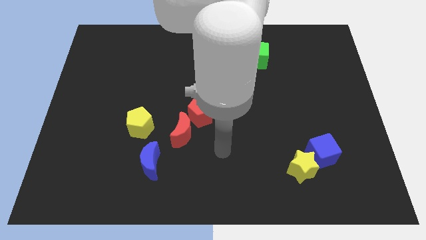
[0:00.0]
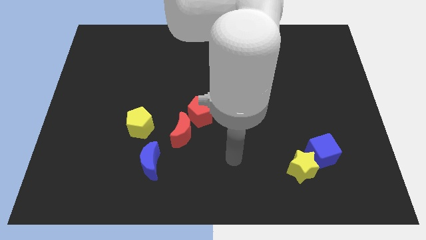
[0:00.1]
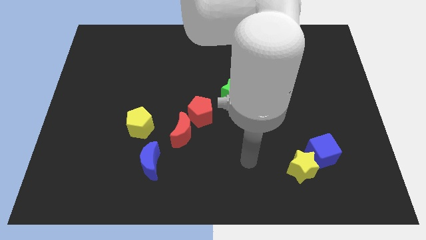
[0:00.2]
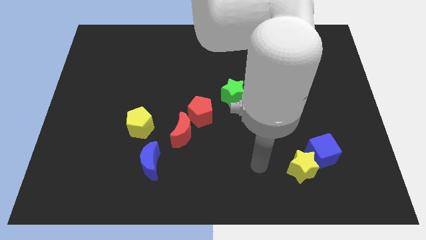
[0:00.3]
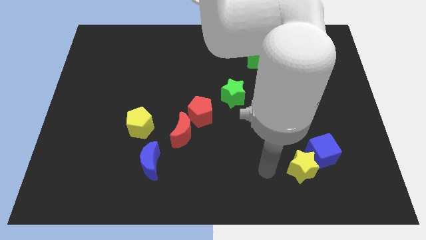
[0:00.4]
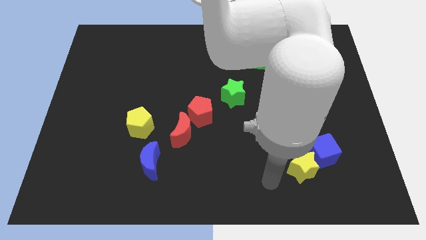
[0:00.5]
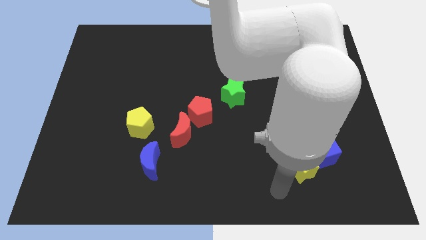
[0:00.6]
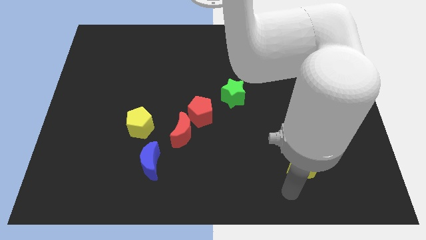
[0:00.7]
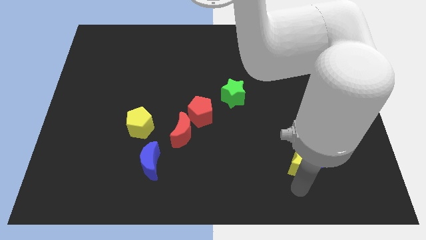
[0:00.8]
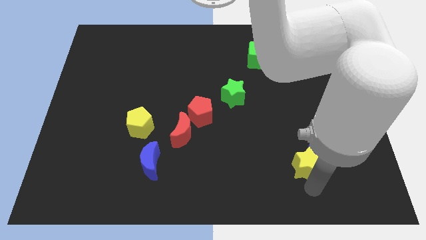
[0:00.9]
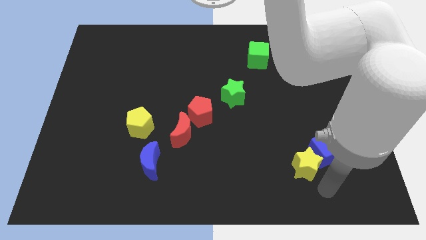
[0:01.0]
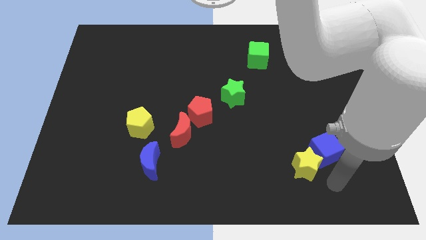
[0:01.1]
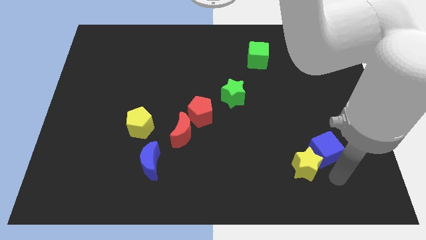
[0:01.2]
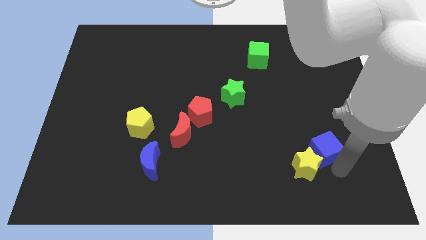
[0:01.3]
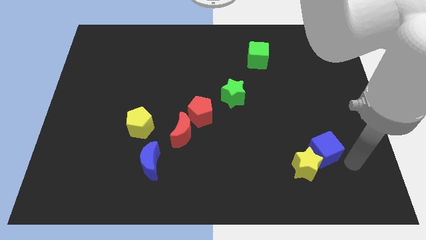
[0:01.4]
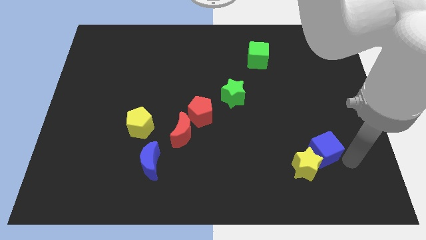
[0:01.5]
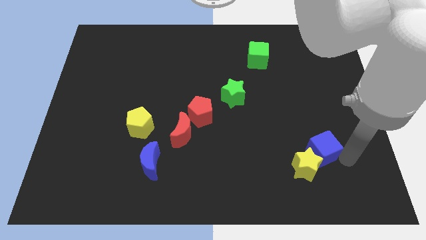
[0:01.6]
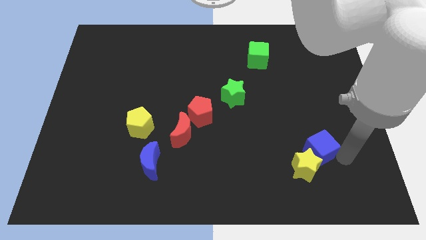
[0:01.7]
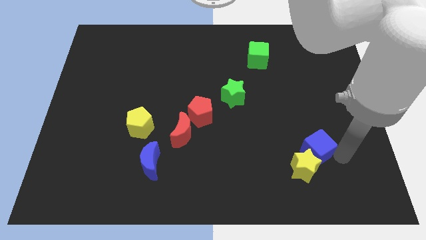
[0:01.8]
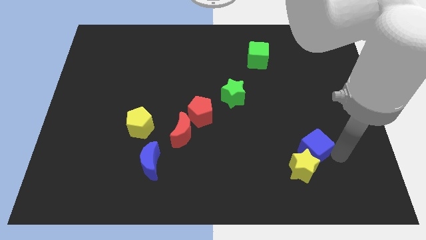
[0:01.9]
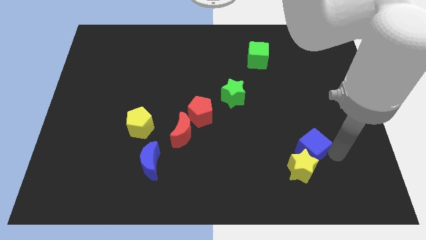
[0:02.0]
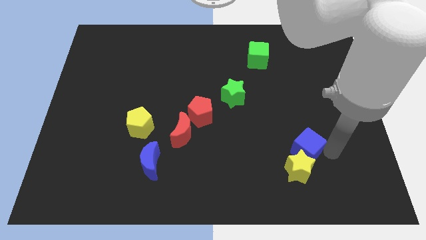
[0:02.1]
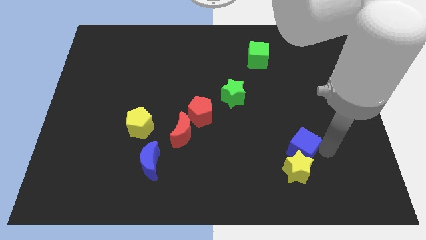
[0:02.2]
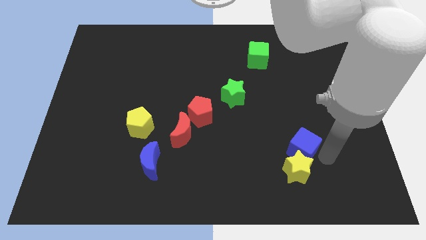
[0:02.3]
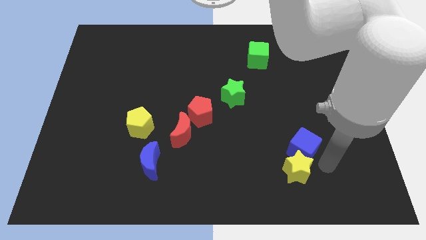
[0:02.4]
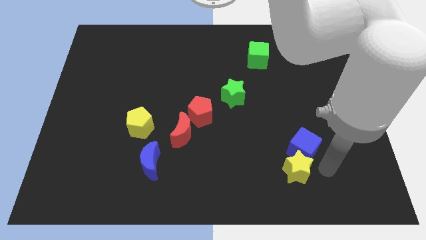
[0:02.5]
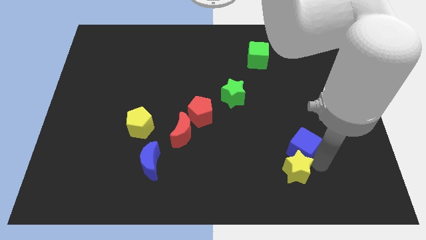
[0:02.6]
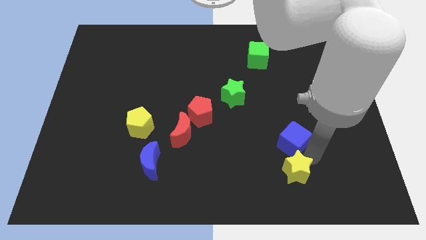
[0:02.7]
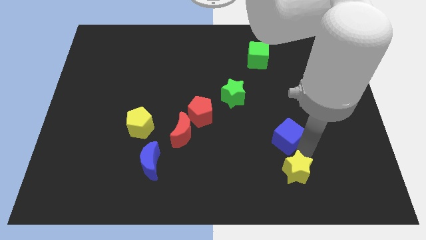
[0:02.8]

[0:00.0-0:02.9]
move the blue cube upwards and left diagonally a little

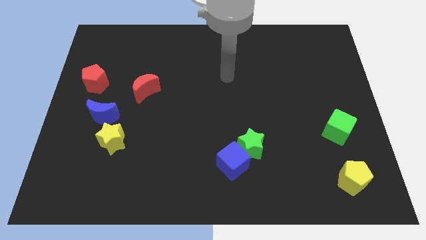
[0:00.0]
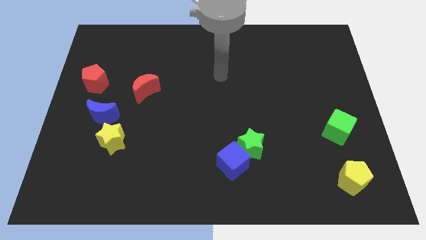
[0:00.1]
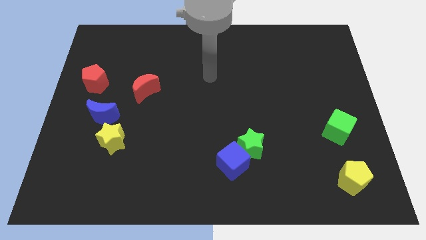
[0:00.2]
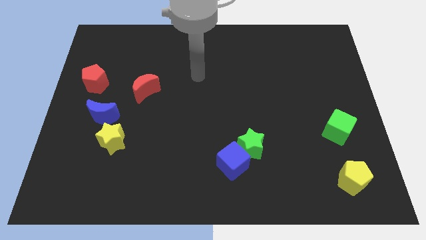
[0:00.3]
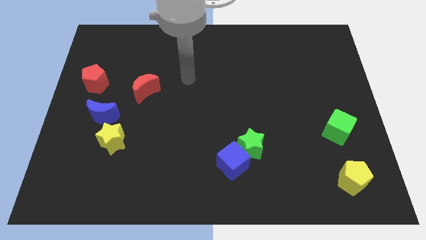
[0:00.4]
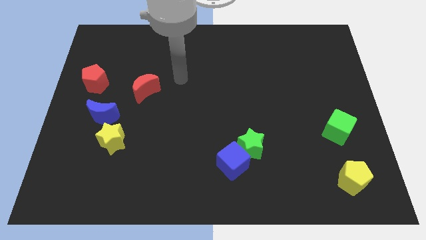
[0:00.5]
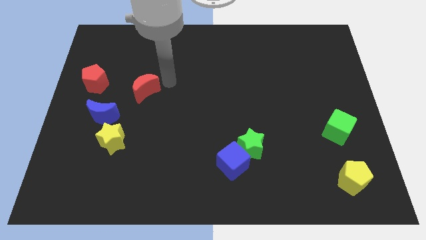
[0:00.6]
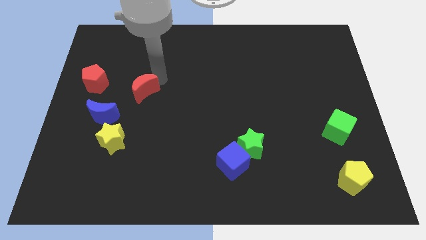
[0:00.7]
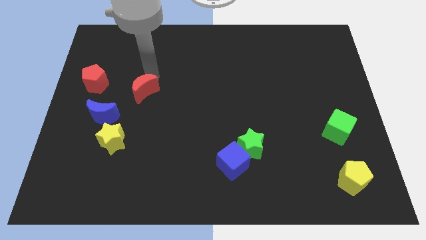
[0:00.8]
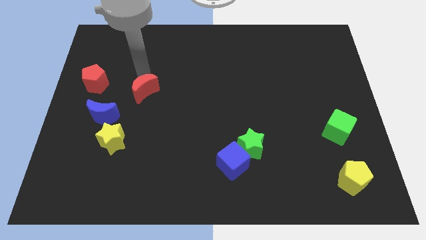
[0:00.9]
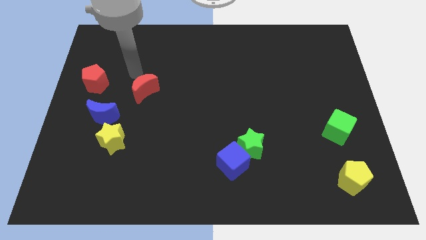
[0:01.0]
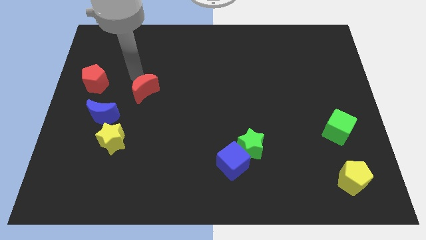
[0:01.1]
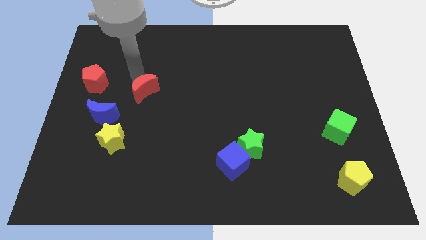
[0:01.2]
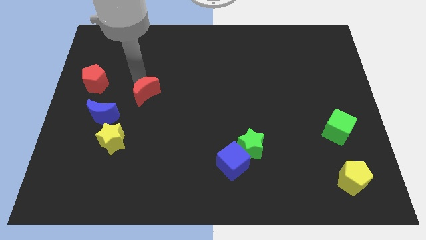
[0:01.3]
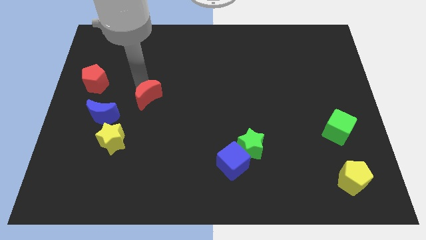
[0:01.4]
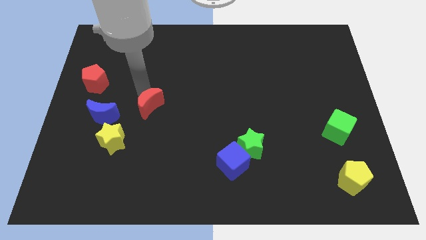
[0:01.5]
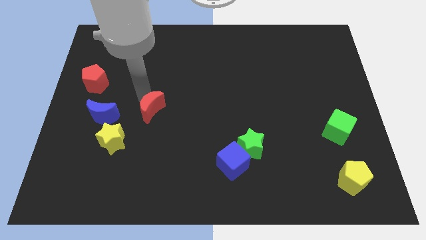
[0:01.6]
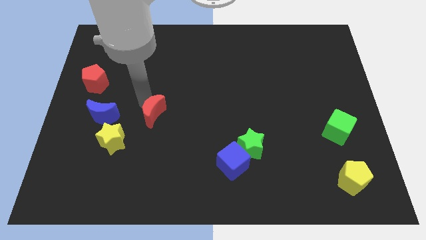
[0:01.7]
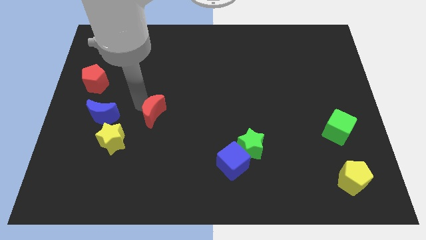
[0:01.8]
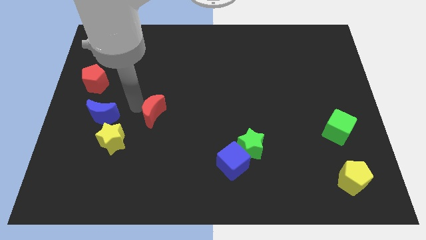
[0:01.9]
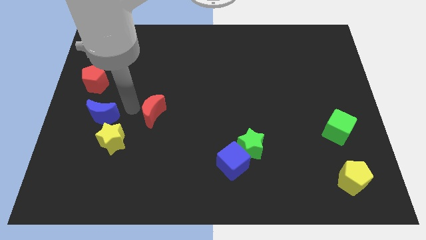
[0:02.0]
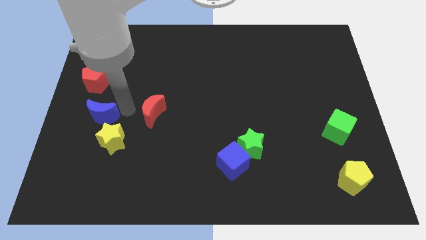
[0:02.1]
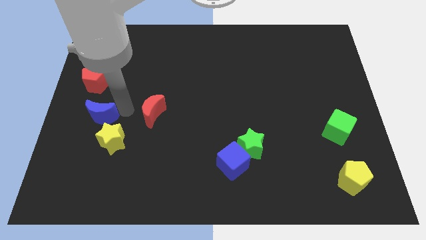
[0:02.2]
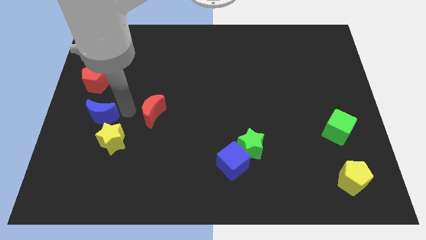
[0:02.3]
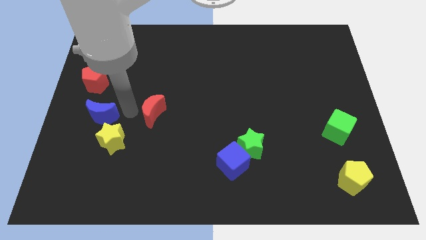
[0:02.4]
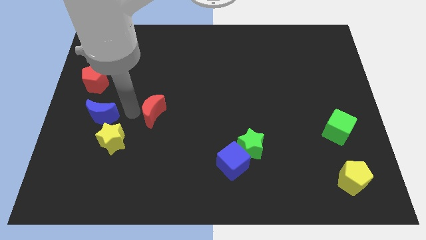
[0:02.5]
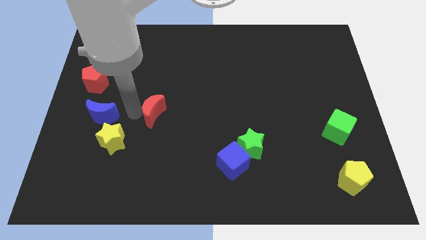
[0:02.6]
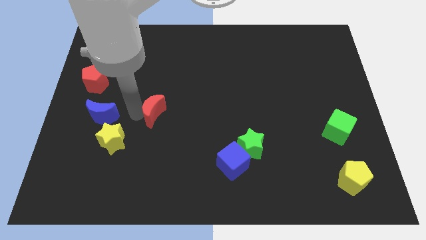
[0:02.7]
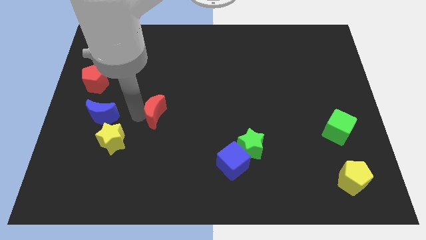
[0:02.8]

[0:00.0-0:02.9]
push the red moon downwards and to the right a little bit

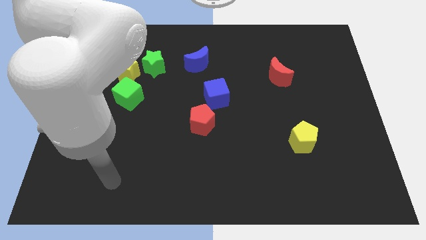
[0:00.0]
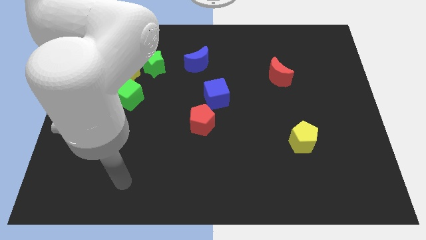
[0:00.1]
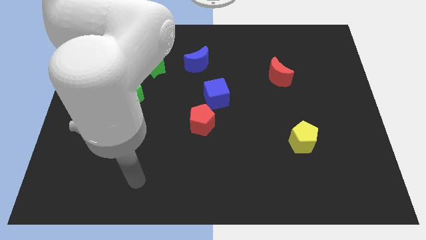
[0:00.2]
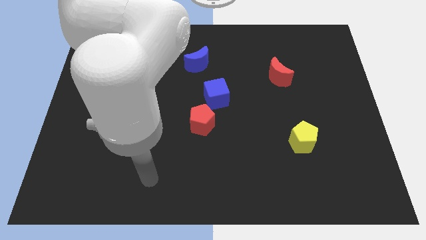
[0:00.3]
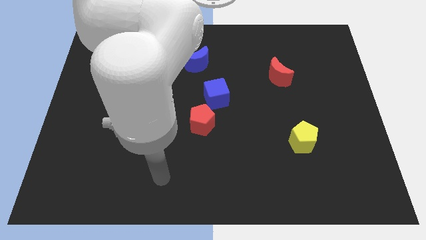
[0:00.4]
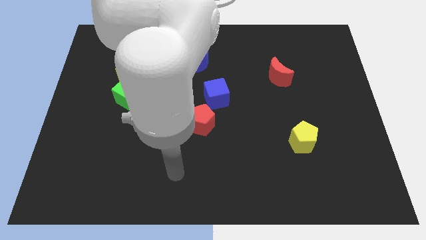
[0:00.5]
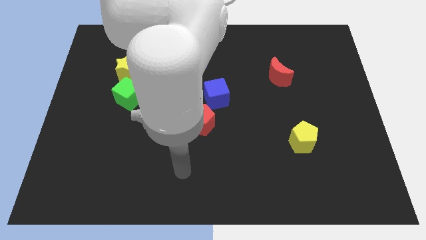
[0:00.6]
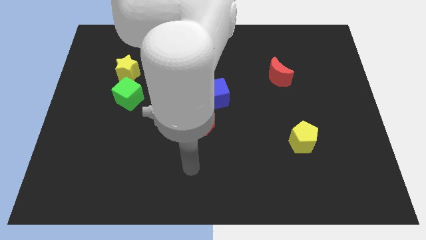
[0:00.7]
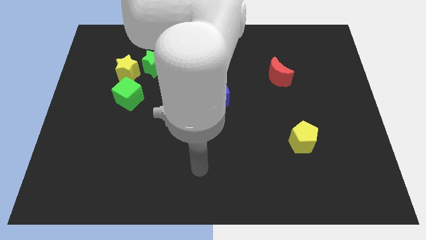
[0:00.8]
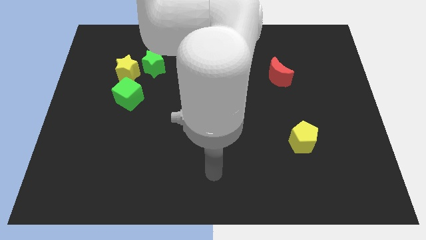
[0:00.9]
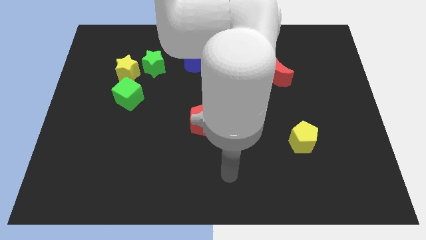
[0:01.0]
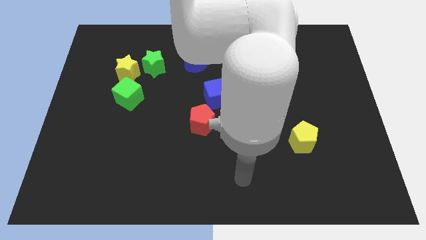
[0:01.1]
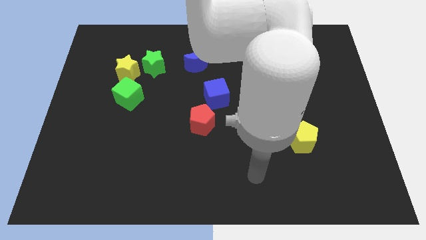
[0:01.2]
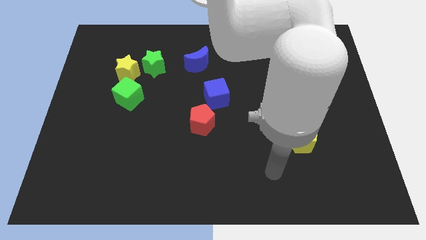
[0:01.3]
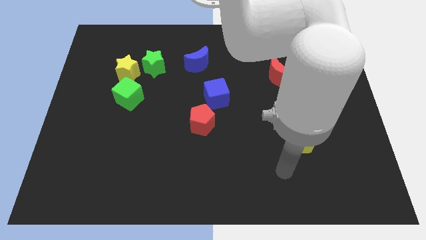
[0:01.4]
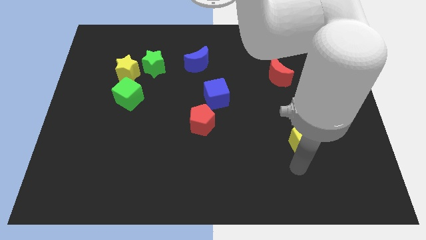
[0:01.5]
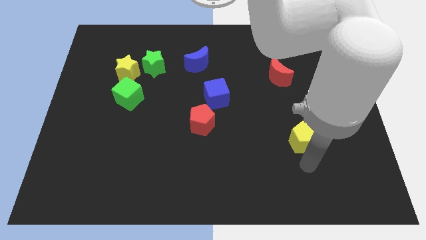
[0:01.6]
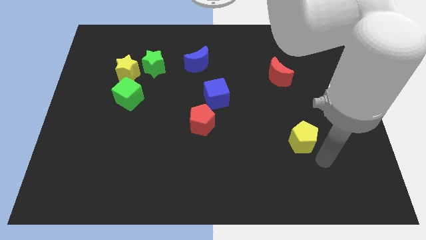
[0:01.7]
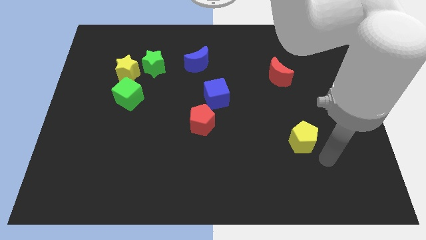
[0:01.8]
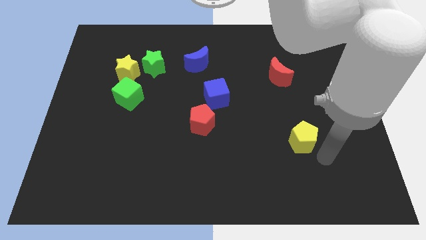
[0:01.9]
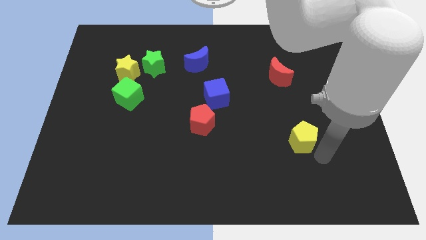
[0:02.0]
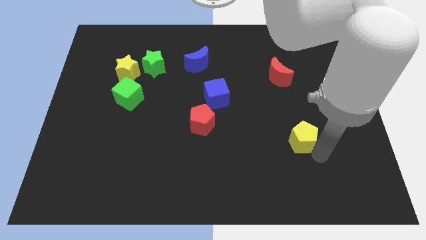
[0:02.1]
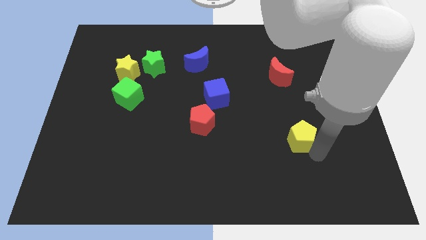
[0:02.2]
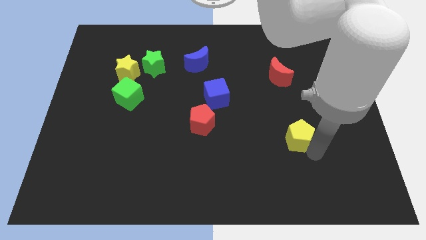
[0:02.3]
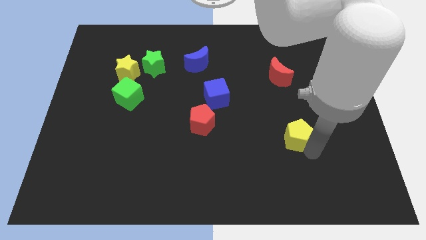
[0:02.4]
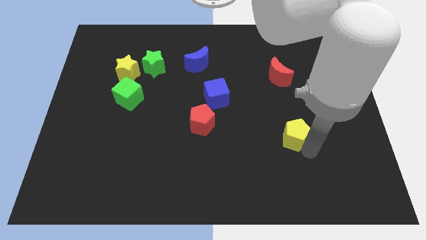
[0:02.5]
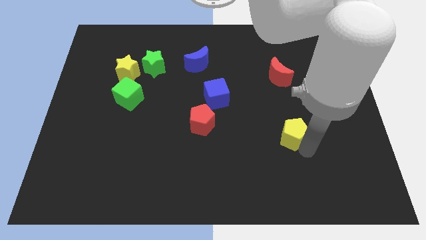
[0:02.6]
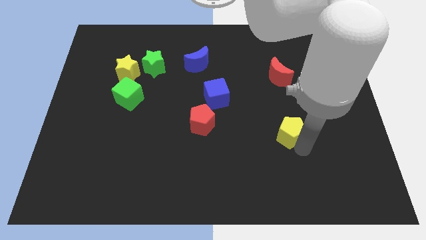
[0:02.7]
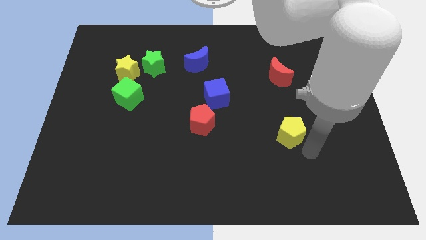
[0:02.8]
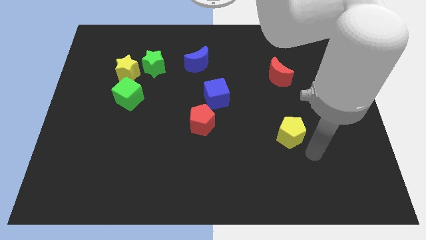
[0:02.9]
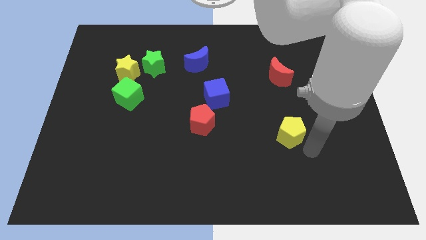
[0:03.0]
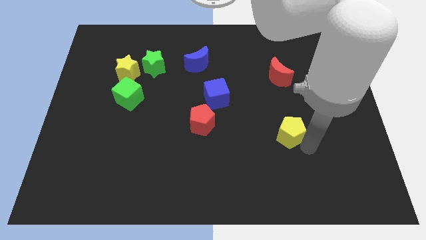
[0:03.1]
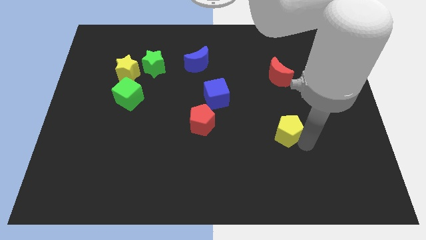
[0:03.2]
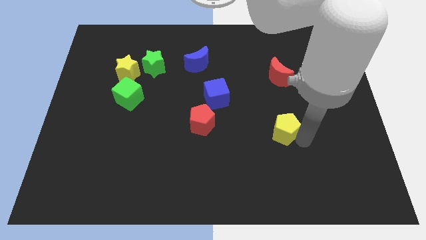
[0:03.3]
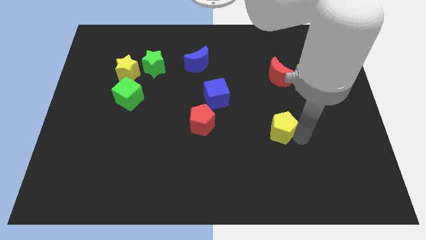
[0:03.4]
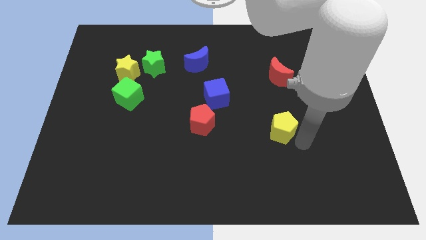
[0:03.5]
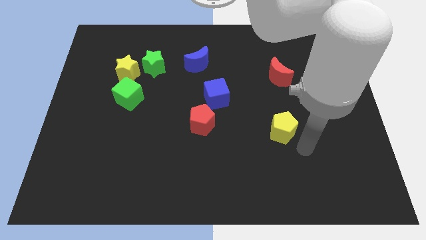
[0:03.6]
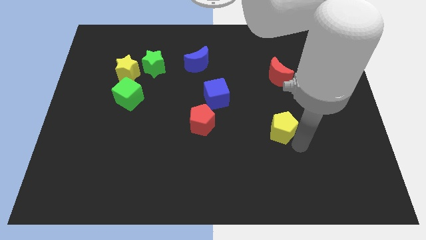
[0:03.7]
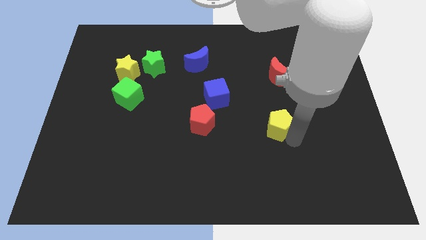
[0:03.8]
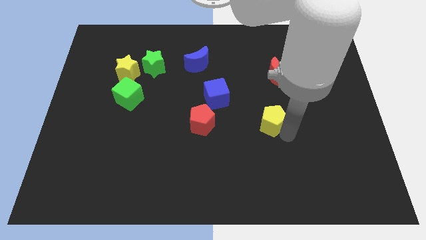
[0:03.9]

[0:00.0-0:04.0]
push the yellow pentagon a little up and then to the left
